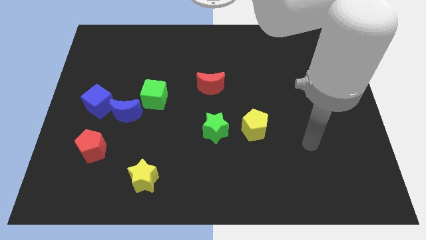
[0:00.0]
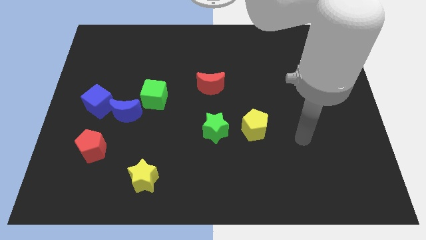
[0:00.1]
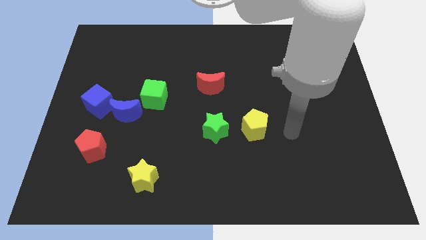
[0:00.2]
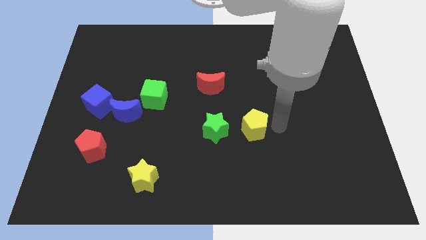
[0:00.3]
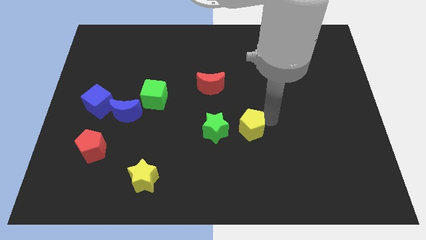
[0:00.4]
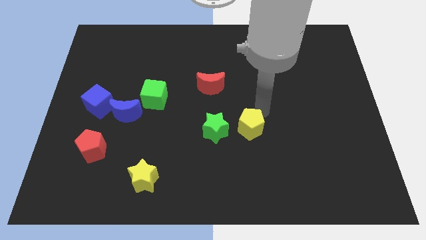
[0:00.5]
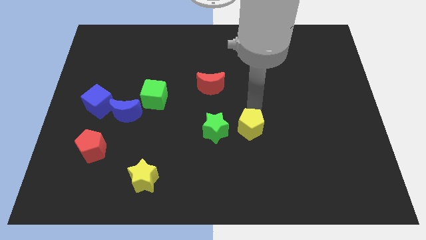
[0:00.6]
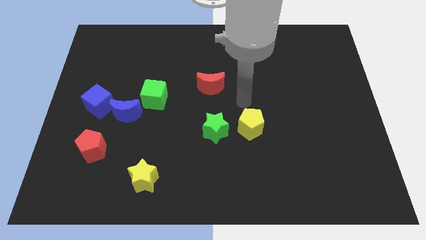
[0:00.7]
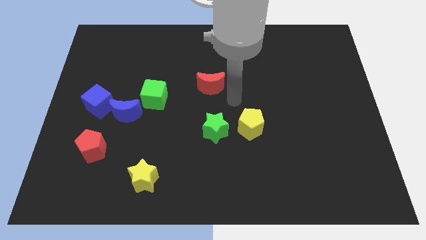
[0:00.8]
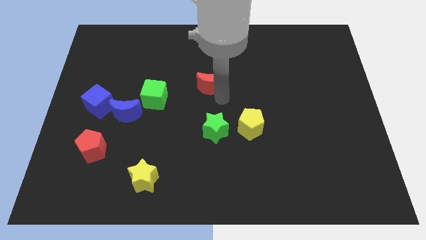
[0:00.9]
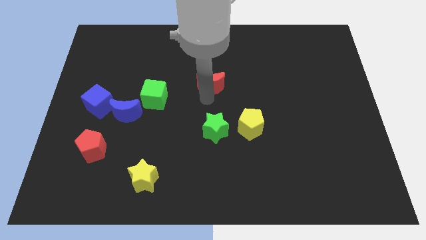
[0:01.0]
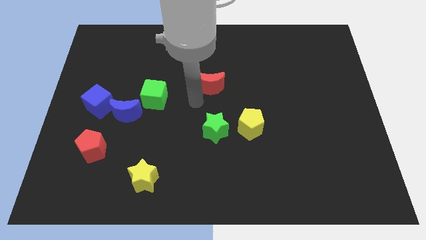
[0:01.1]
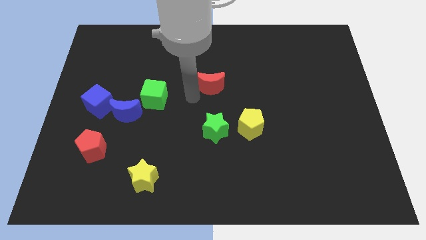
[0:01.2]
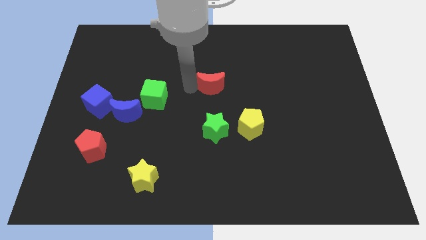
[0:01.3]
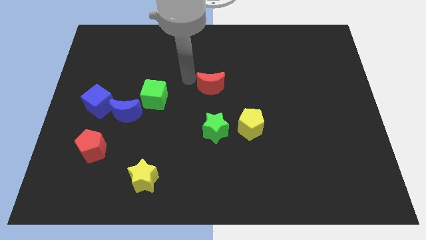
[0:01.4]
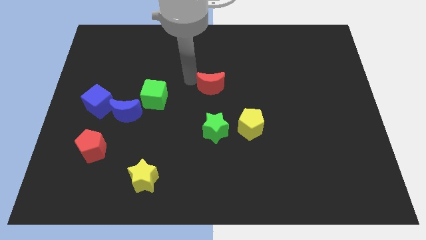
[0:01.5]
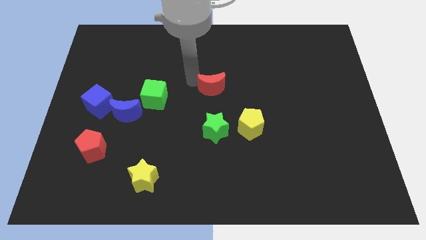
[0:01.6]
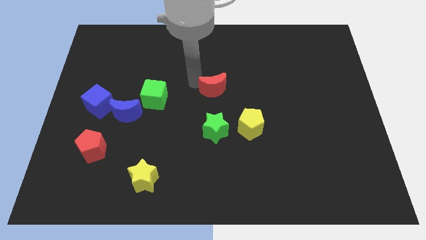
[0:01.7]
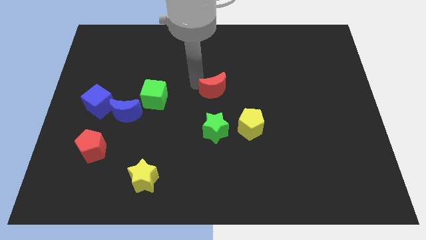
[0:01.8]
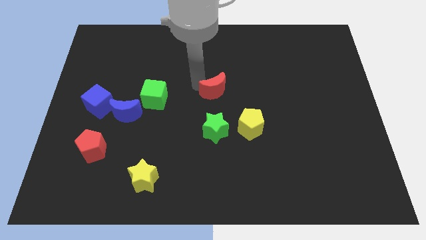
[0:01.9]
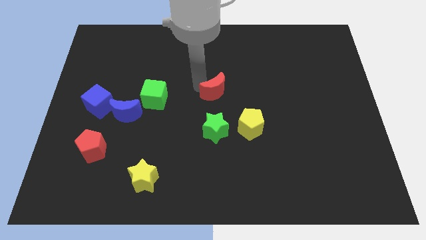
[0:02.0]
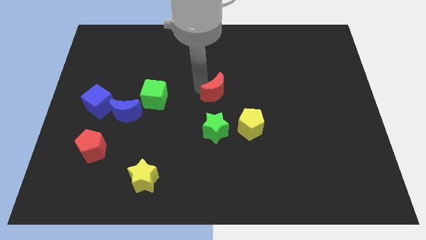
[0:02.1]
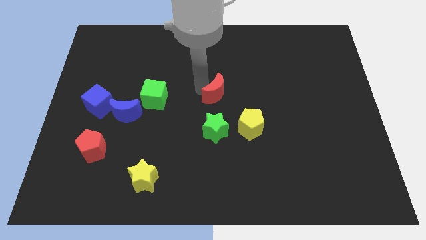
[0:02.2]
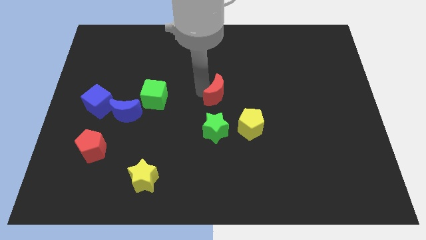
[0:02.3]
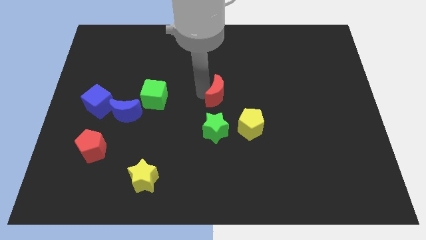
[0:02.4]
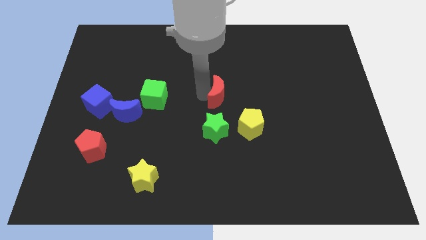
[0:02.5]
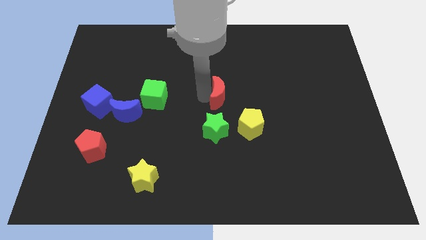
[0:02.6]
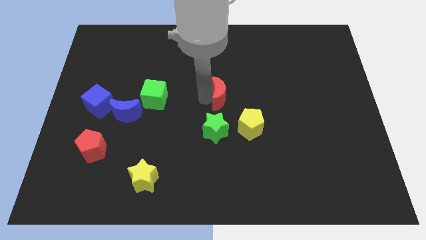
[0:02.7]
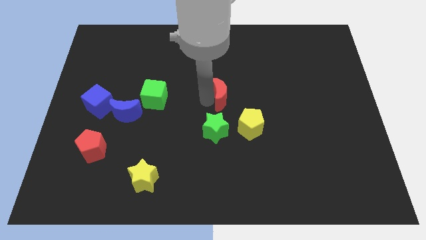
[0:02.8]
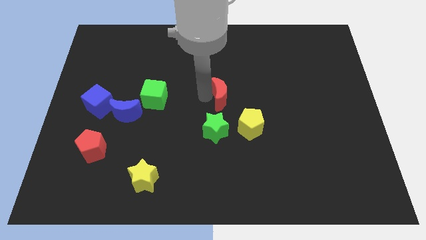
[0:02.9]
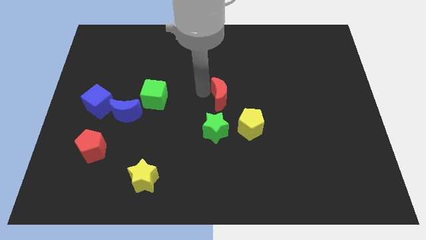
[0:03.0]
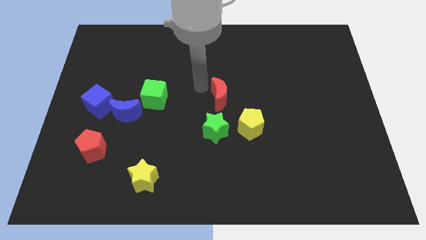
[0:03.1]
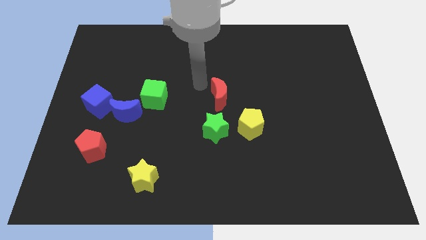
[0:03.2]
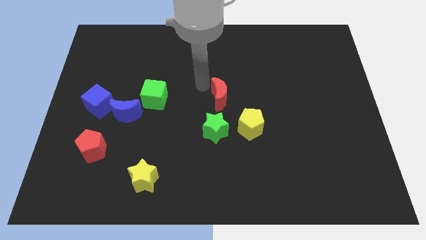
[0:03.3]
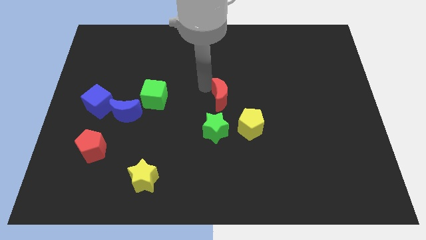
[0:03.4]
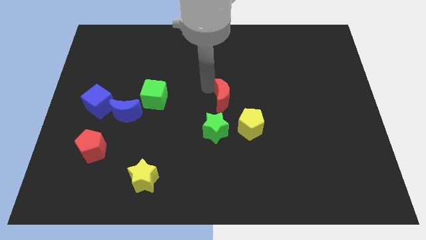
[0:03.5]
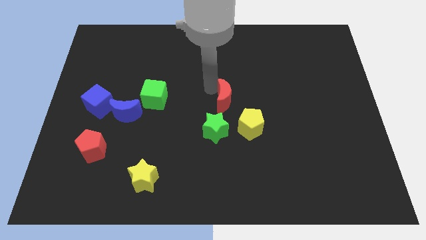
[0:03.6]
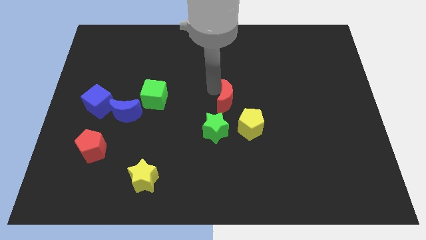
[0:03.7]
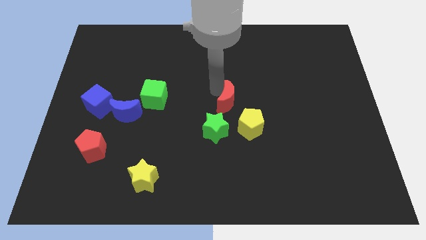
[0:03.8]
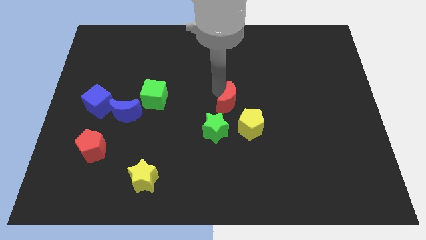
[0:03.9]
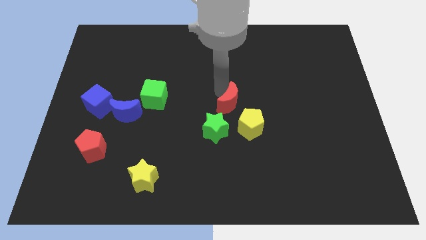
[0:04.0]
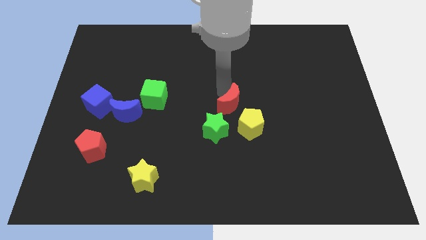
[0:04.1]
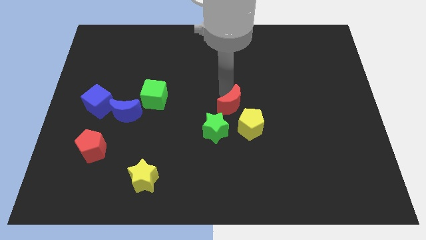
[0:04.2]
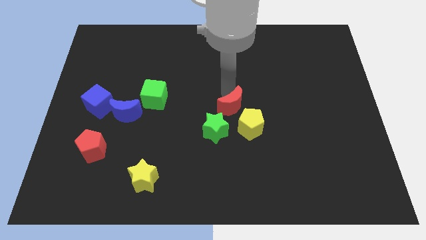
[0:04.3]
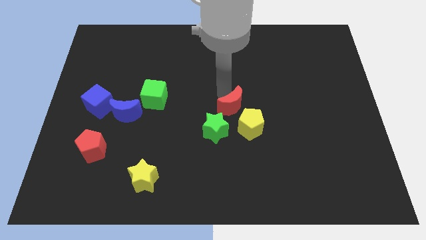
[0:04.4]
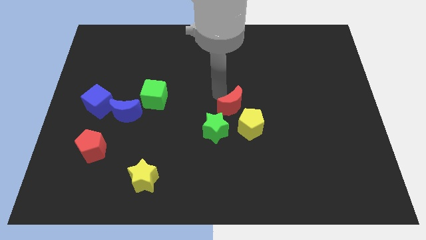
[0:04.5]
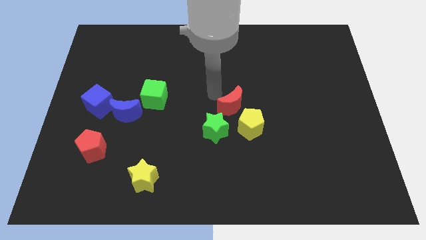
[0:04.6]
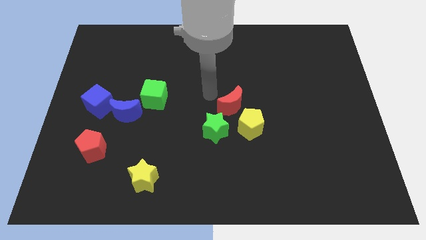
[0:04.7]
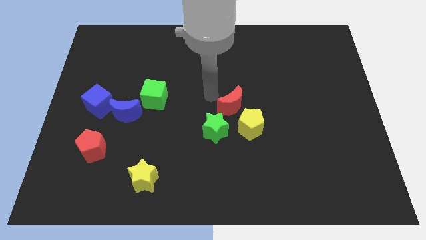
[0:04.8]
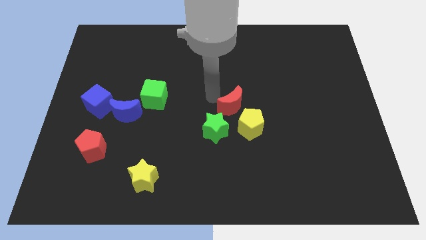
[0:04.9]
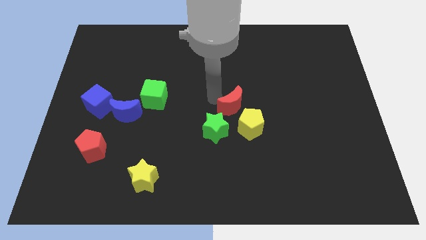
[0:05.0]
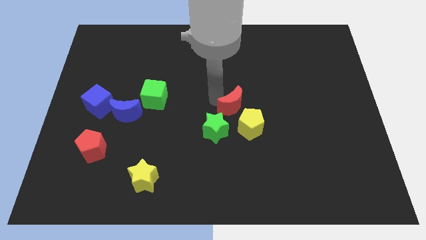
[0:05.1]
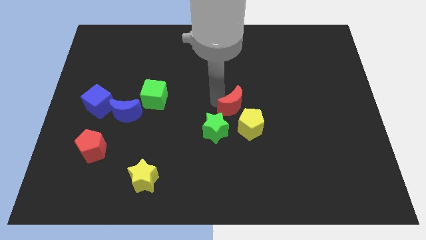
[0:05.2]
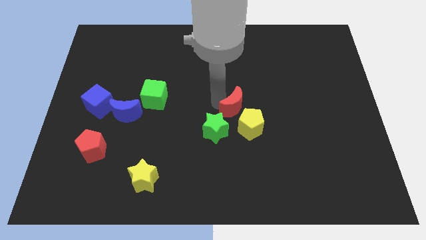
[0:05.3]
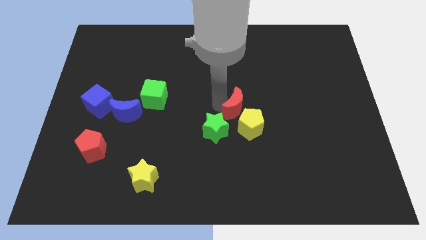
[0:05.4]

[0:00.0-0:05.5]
slide the red moon close to the yellow pentagon

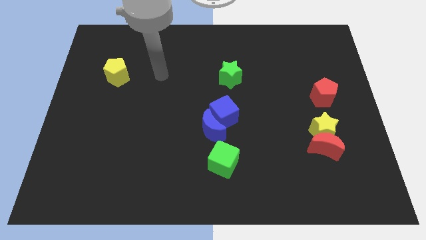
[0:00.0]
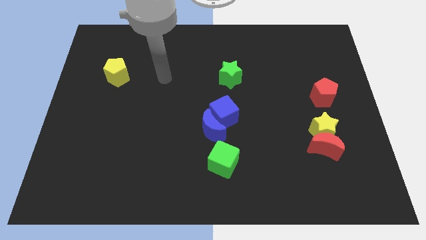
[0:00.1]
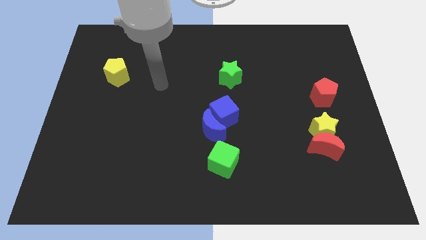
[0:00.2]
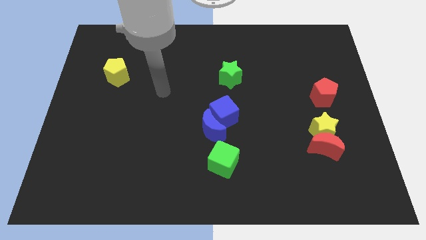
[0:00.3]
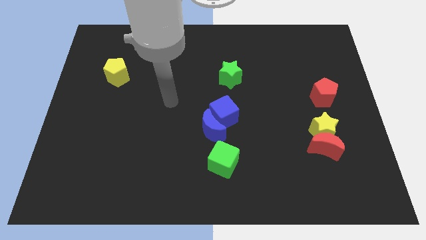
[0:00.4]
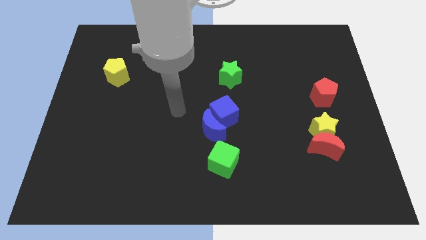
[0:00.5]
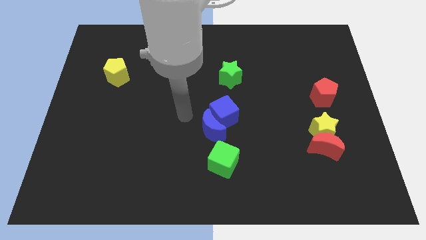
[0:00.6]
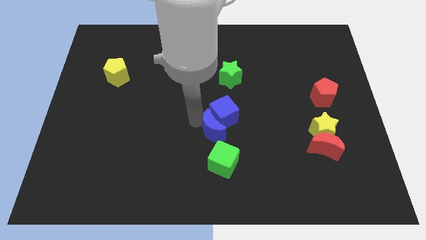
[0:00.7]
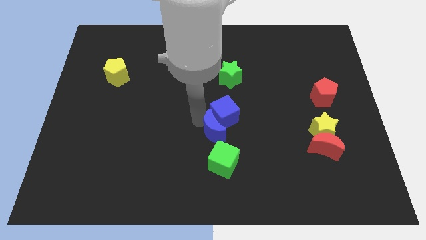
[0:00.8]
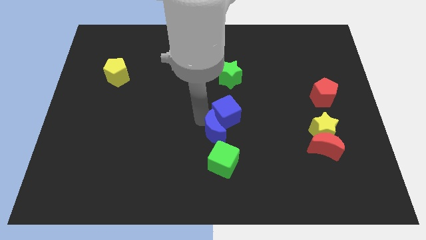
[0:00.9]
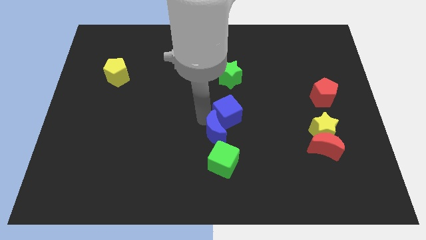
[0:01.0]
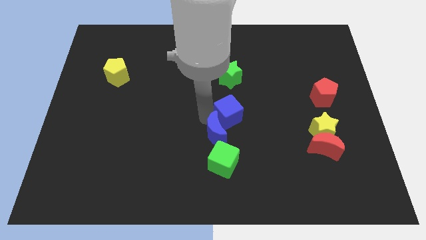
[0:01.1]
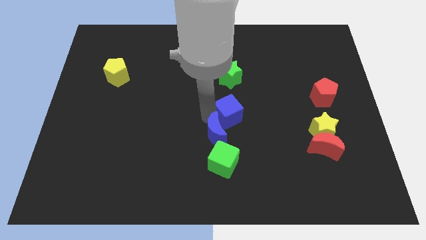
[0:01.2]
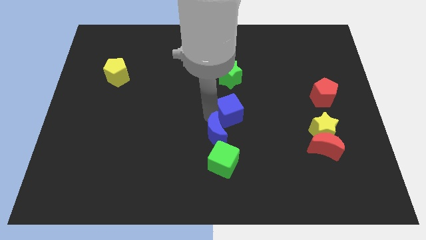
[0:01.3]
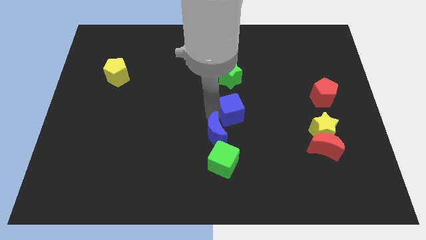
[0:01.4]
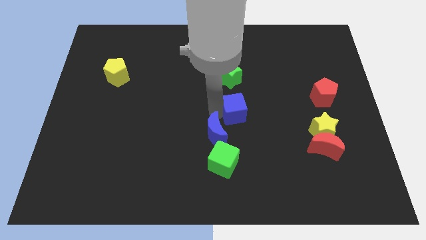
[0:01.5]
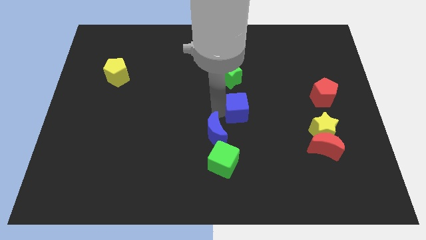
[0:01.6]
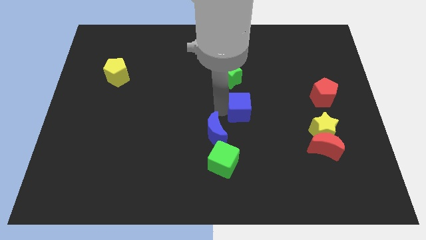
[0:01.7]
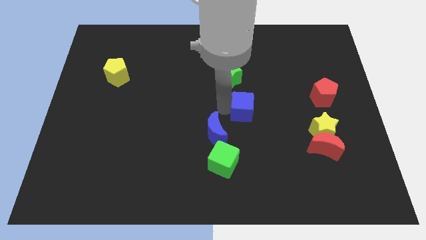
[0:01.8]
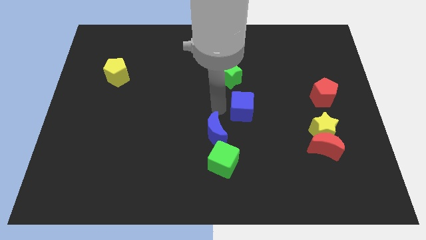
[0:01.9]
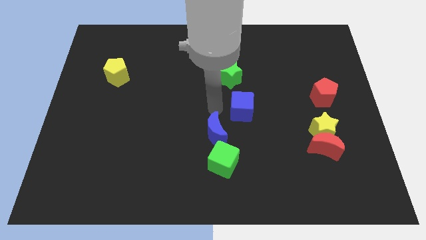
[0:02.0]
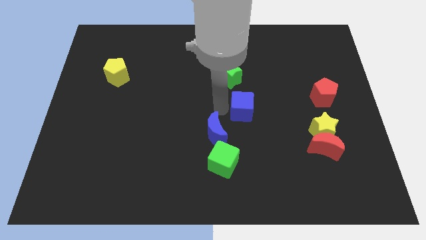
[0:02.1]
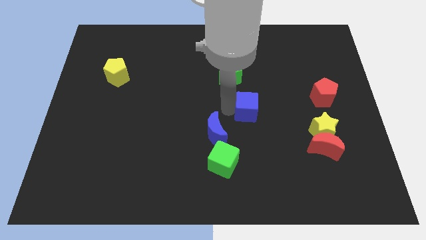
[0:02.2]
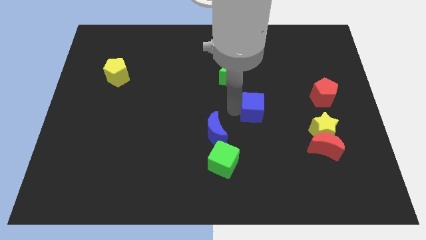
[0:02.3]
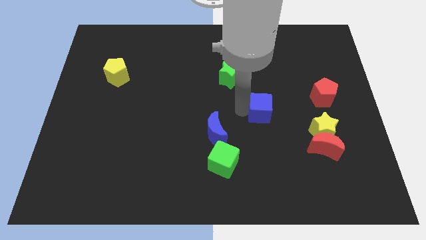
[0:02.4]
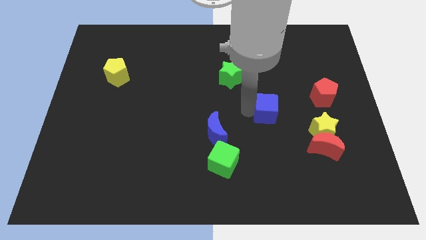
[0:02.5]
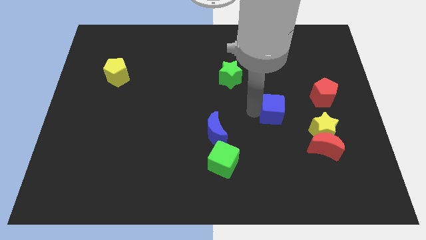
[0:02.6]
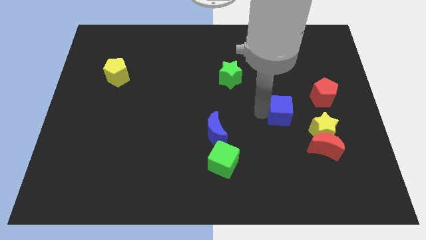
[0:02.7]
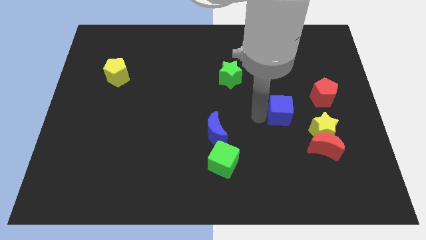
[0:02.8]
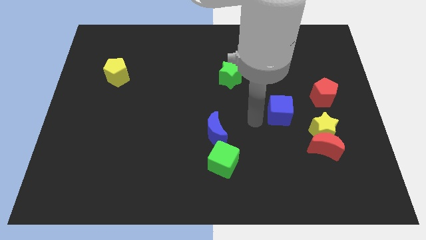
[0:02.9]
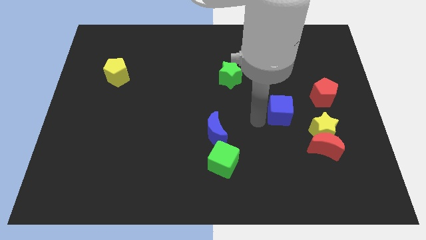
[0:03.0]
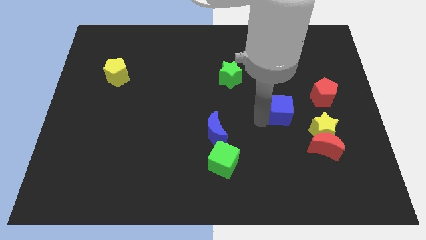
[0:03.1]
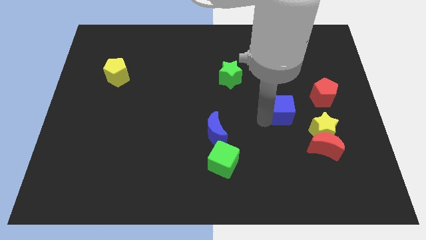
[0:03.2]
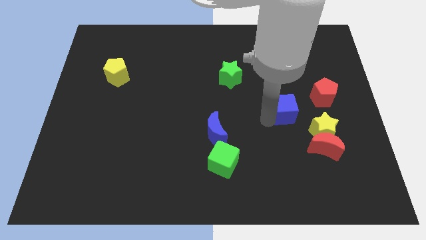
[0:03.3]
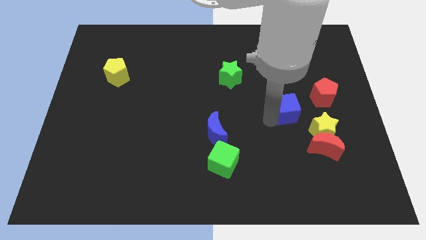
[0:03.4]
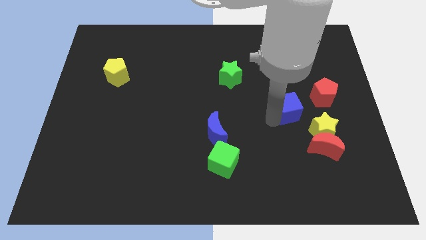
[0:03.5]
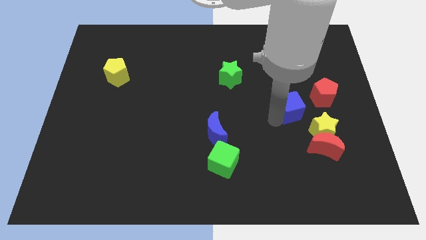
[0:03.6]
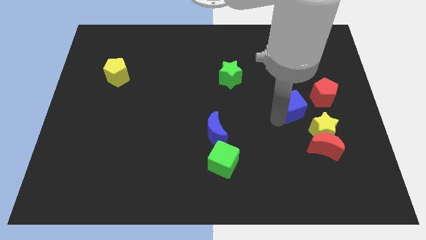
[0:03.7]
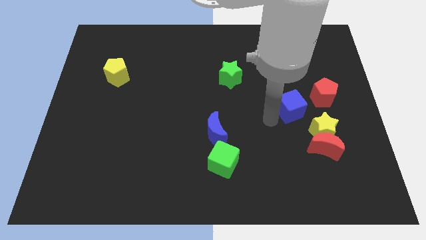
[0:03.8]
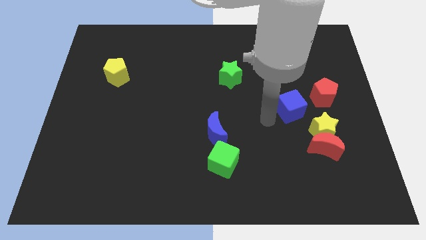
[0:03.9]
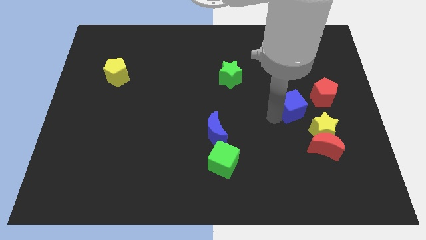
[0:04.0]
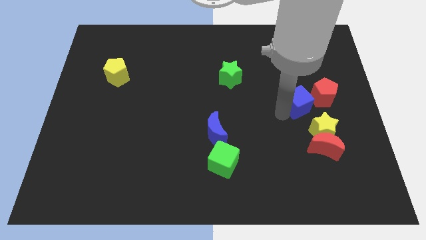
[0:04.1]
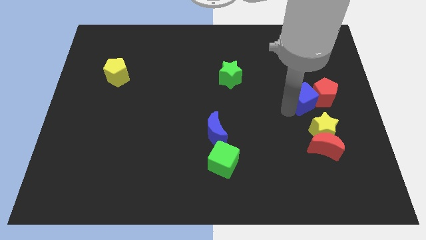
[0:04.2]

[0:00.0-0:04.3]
put the blue cube towards the red pentagon
